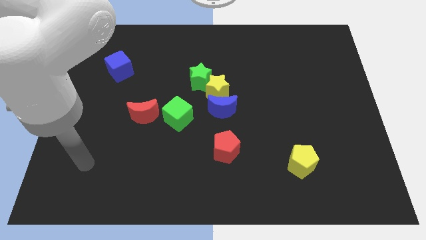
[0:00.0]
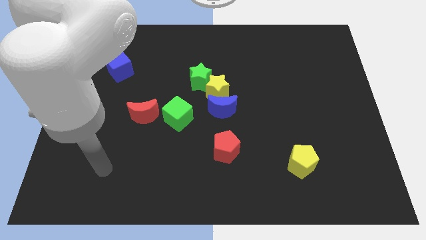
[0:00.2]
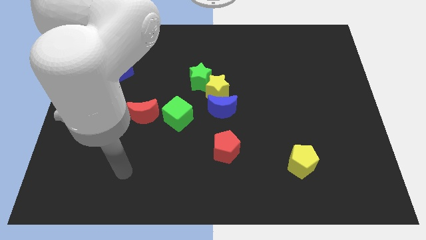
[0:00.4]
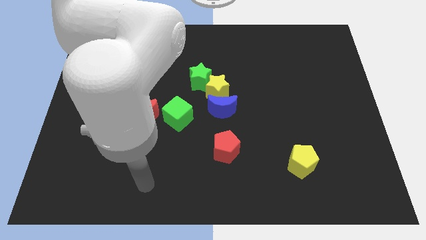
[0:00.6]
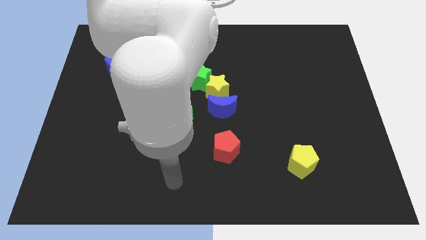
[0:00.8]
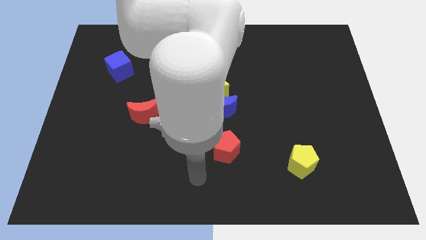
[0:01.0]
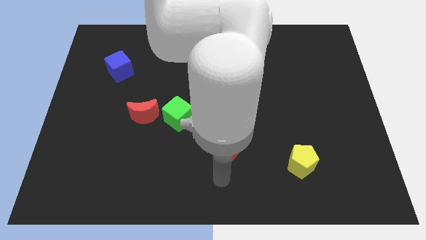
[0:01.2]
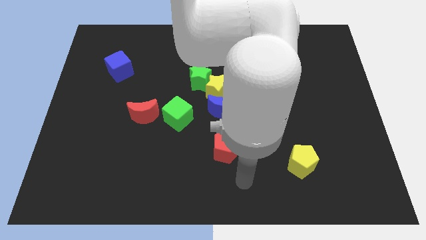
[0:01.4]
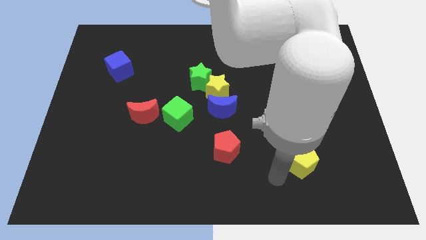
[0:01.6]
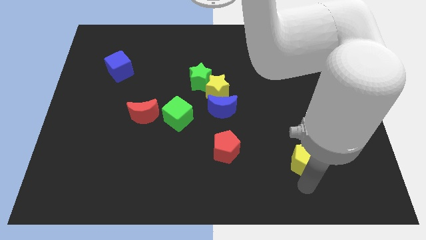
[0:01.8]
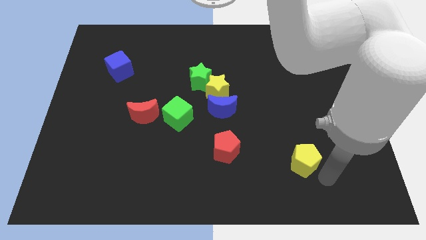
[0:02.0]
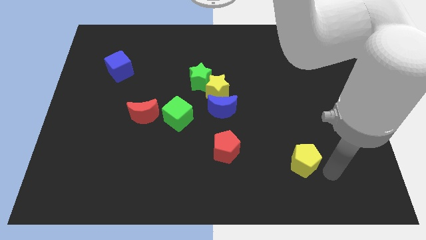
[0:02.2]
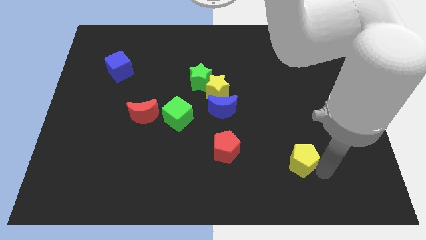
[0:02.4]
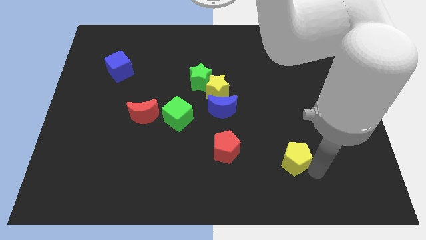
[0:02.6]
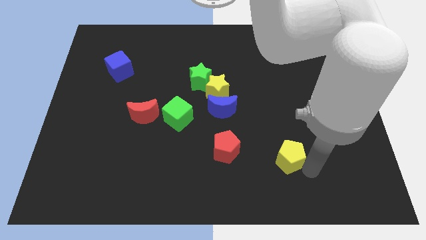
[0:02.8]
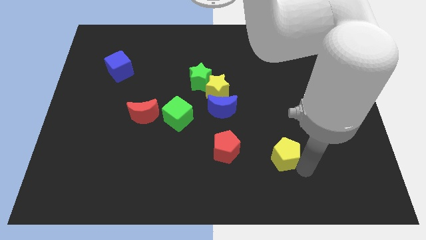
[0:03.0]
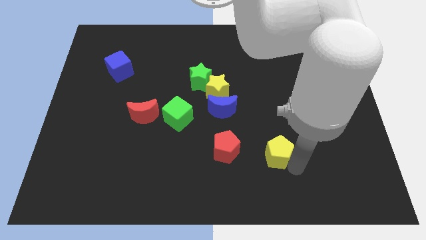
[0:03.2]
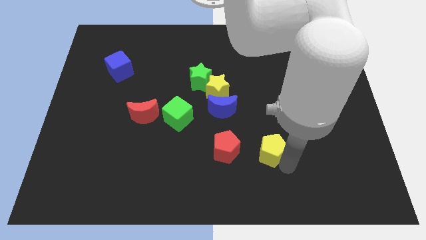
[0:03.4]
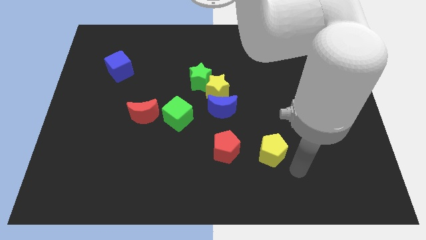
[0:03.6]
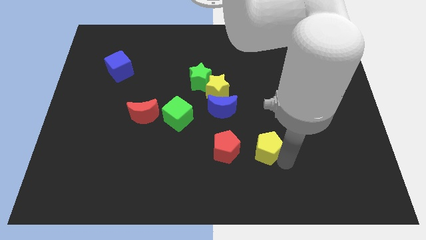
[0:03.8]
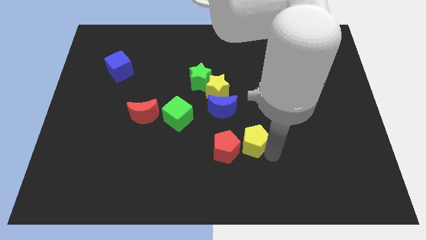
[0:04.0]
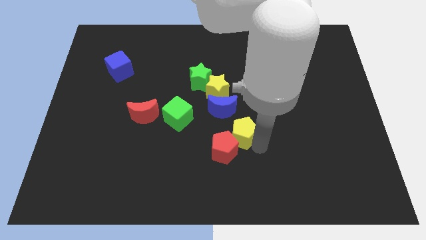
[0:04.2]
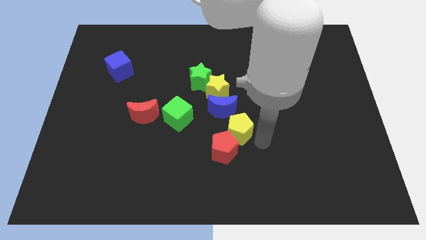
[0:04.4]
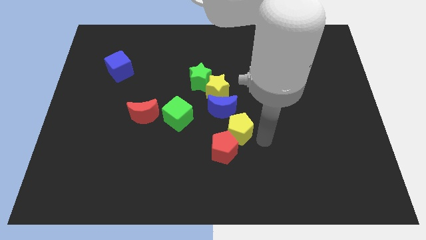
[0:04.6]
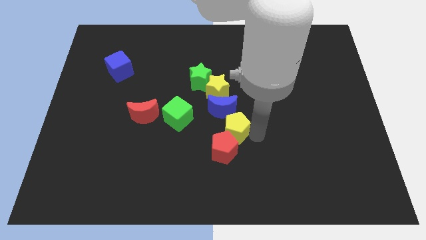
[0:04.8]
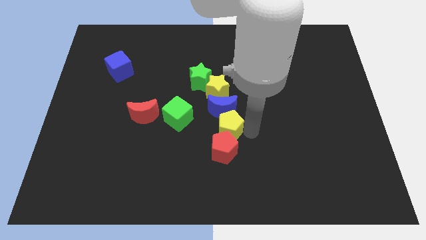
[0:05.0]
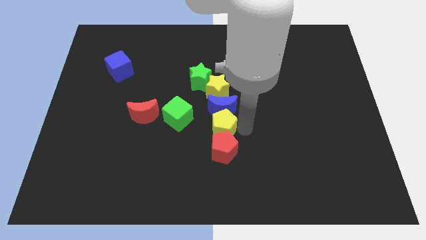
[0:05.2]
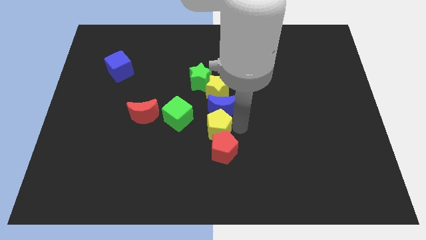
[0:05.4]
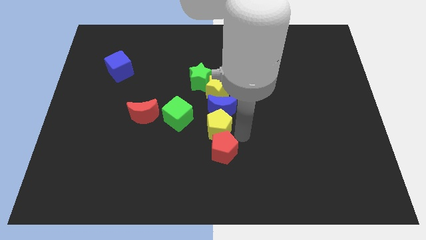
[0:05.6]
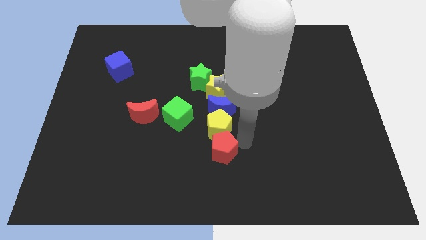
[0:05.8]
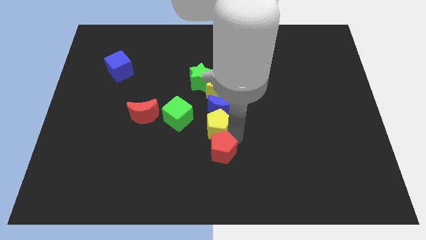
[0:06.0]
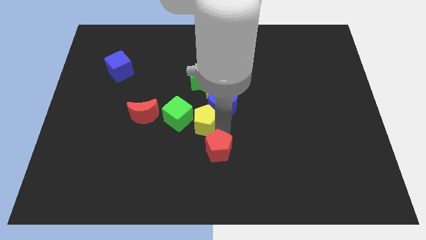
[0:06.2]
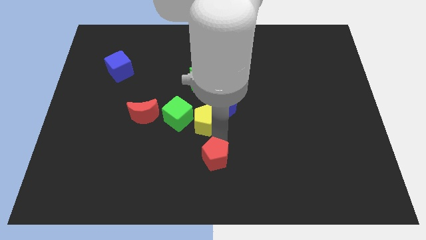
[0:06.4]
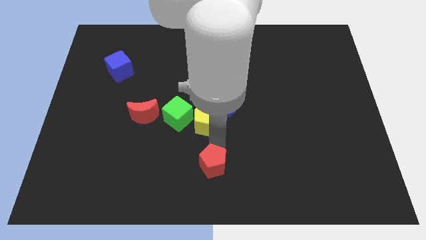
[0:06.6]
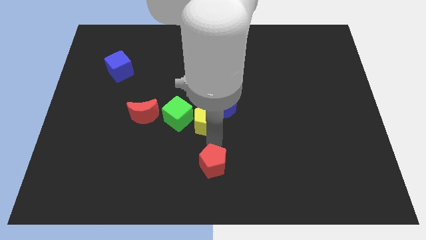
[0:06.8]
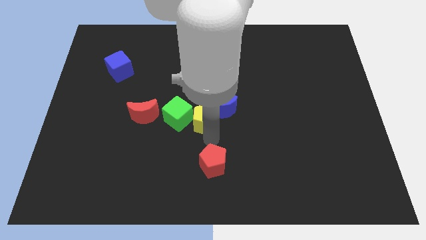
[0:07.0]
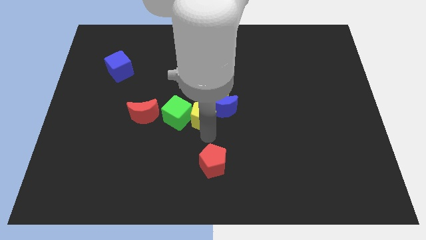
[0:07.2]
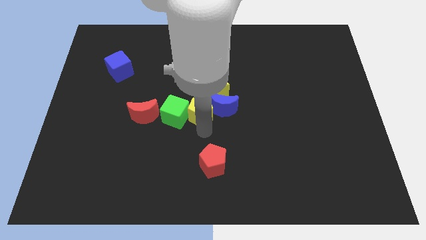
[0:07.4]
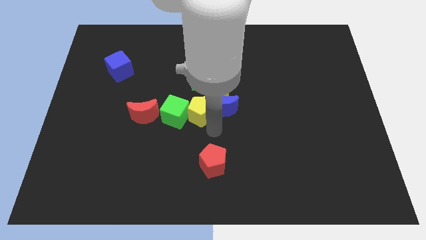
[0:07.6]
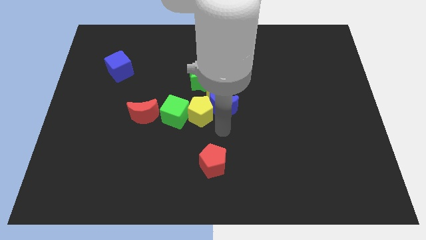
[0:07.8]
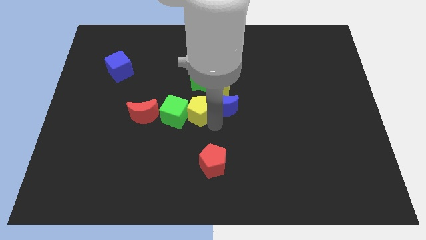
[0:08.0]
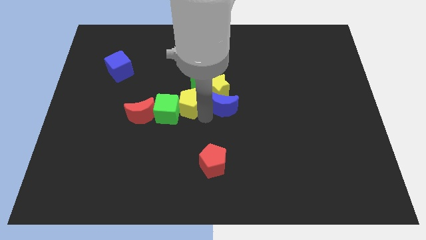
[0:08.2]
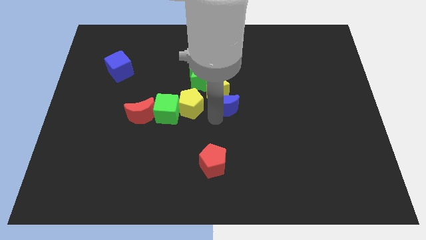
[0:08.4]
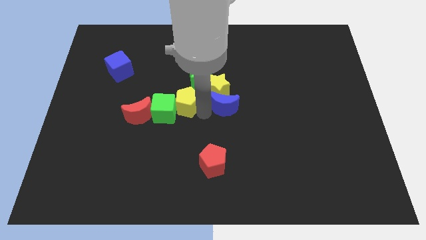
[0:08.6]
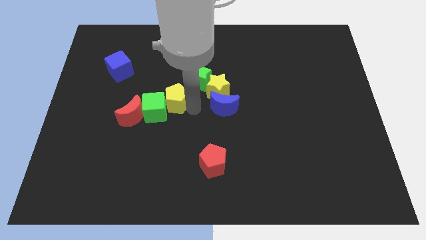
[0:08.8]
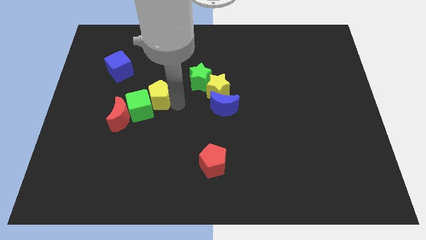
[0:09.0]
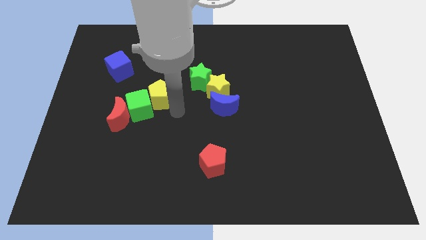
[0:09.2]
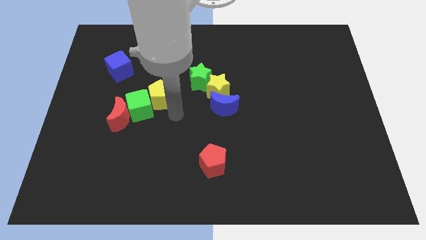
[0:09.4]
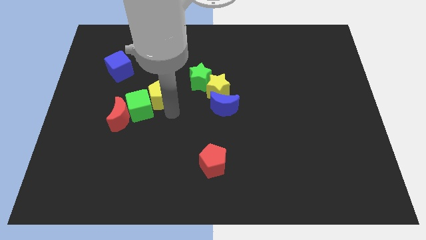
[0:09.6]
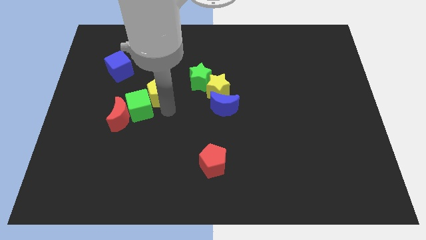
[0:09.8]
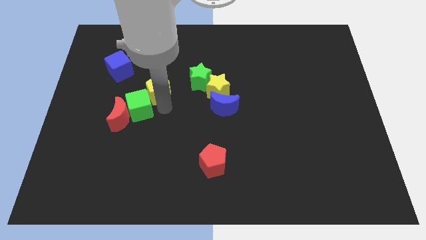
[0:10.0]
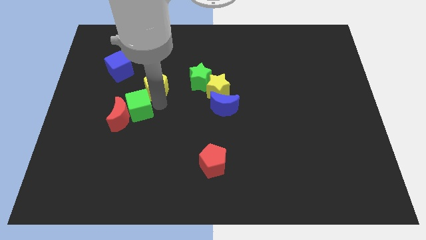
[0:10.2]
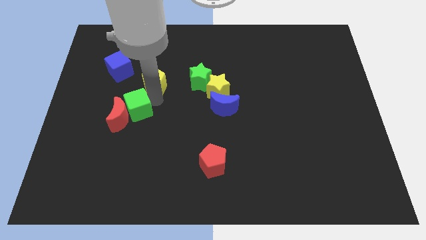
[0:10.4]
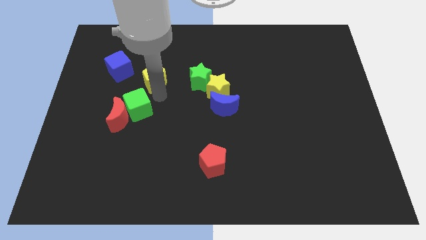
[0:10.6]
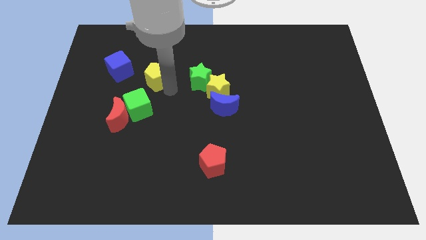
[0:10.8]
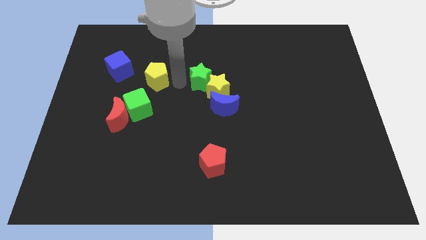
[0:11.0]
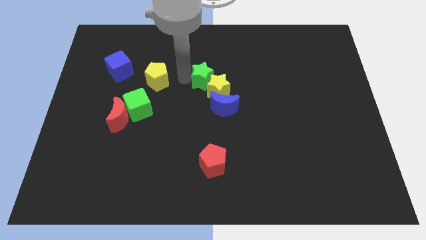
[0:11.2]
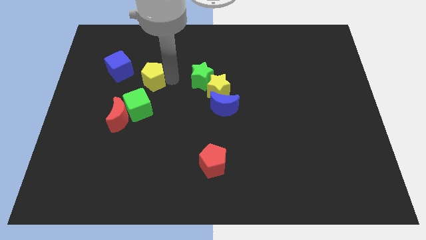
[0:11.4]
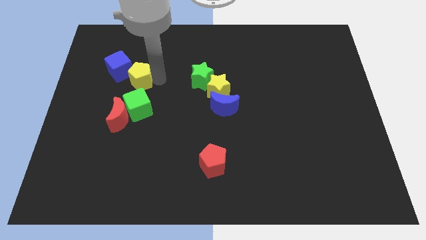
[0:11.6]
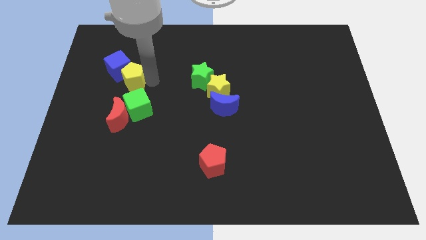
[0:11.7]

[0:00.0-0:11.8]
slide the yellow pentagon next to the blue cube

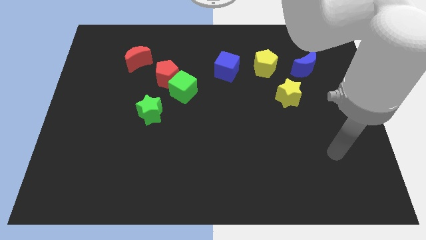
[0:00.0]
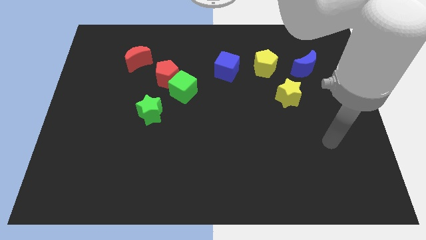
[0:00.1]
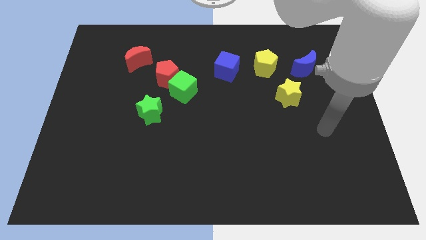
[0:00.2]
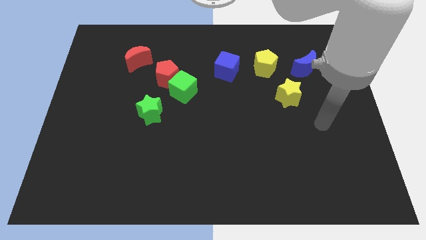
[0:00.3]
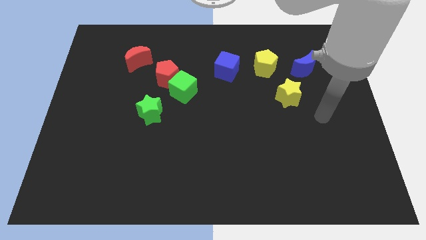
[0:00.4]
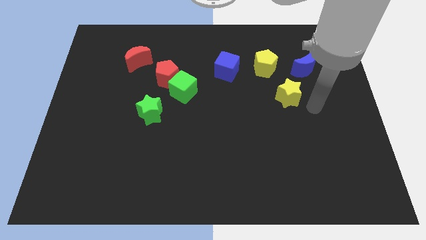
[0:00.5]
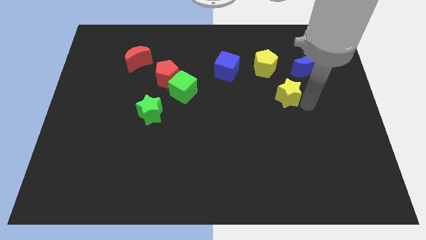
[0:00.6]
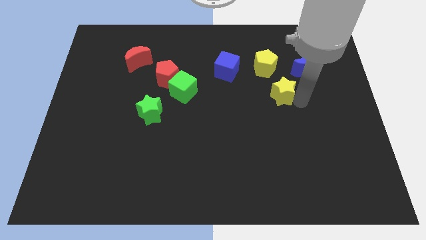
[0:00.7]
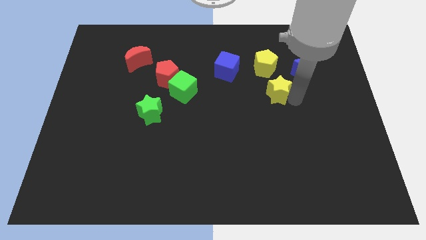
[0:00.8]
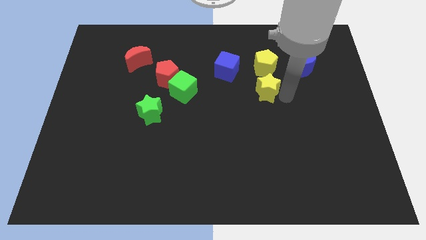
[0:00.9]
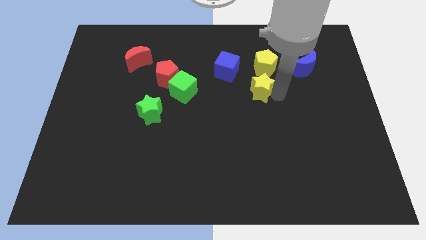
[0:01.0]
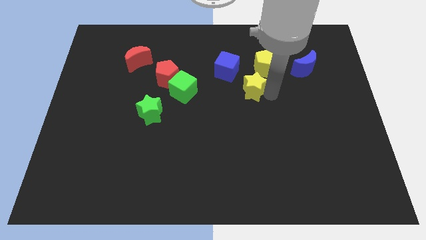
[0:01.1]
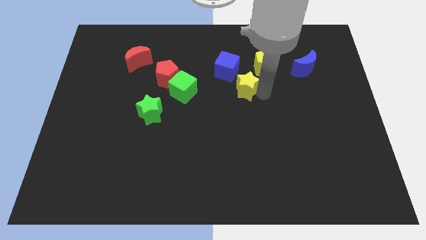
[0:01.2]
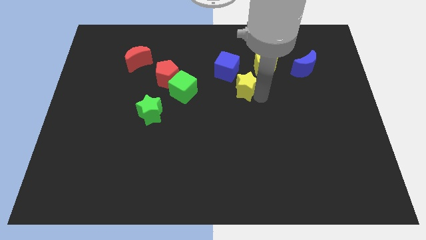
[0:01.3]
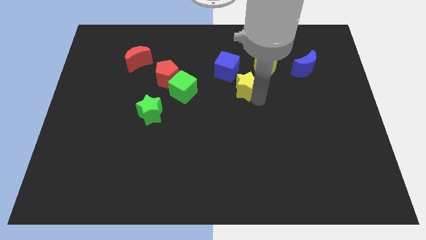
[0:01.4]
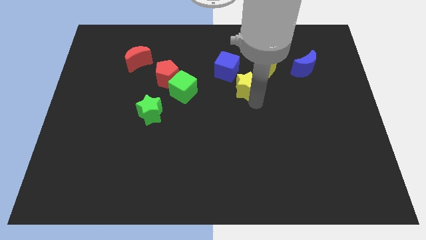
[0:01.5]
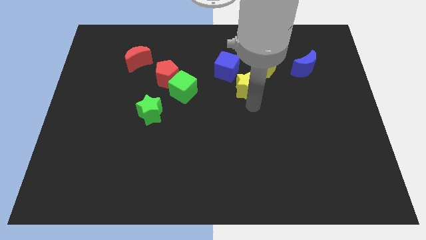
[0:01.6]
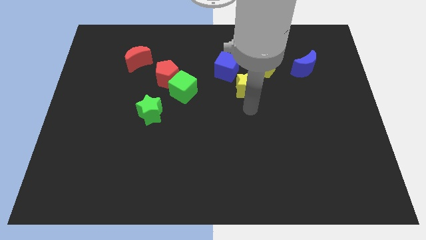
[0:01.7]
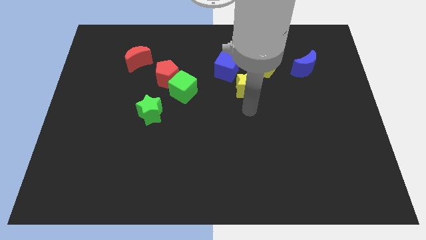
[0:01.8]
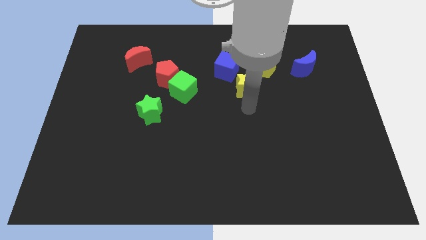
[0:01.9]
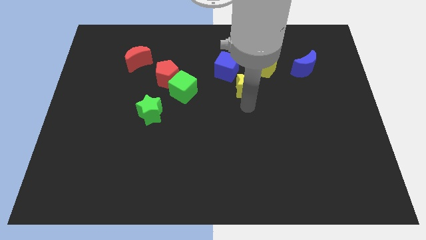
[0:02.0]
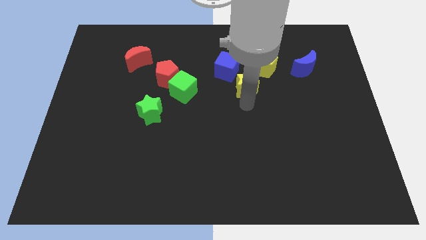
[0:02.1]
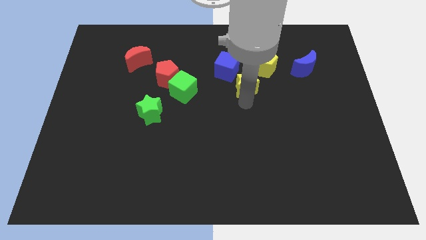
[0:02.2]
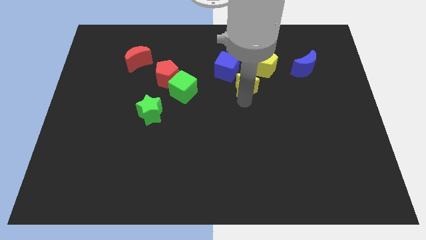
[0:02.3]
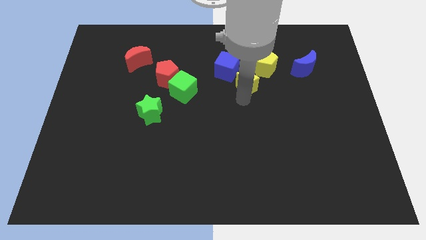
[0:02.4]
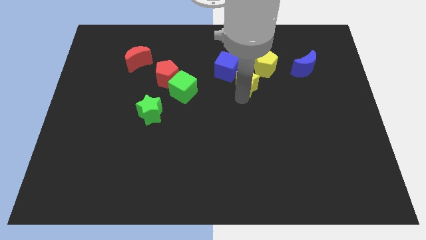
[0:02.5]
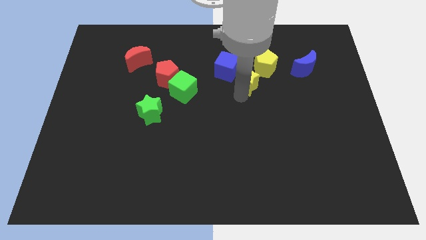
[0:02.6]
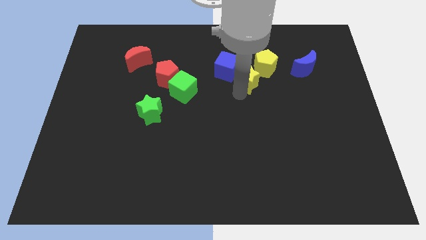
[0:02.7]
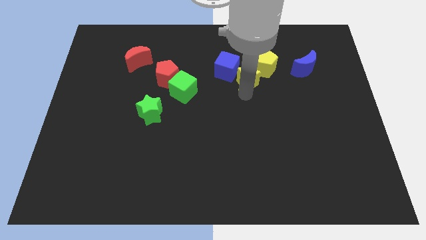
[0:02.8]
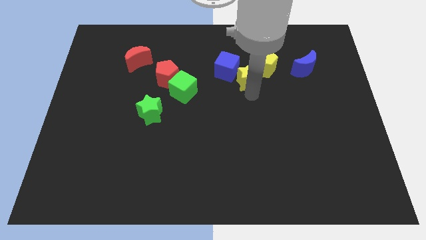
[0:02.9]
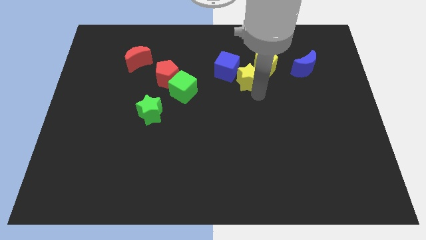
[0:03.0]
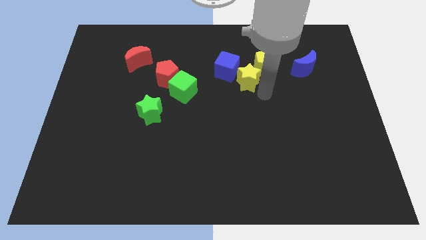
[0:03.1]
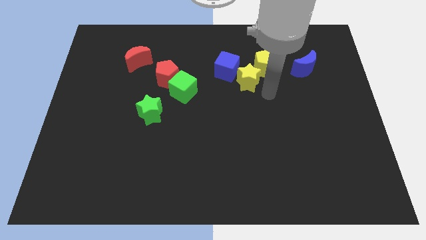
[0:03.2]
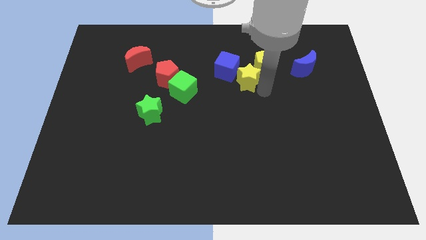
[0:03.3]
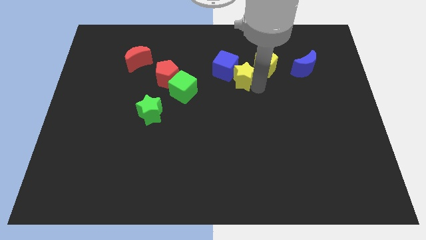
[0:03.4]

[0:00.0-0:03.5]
slide the yellow star next to the blue cube
